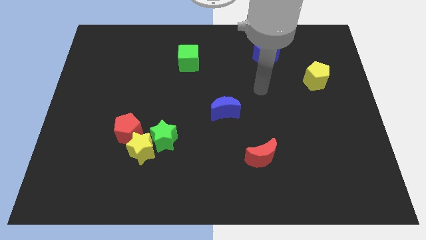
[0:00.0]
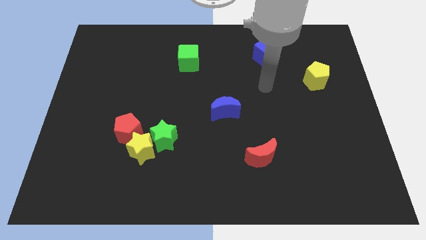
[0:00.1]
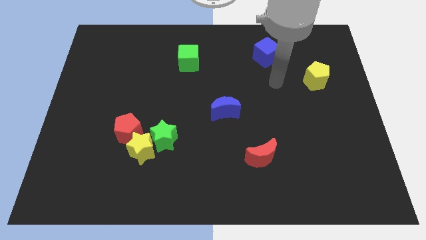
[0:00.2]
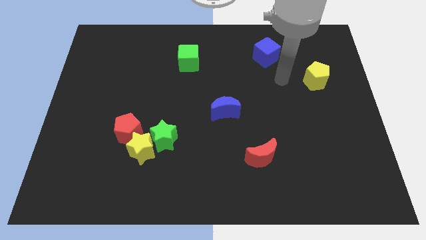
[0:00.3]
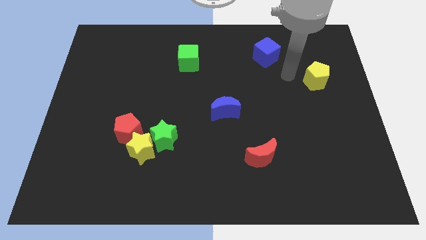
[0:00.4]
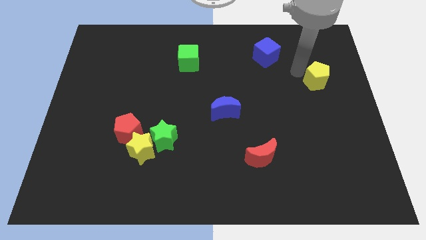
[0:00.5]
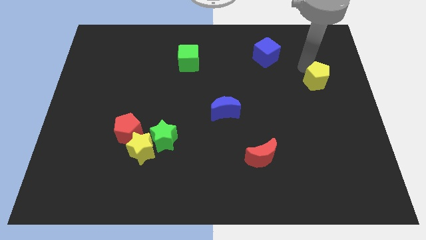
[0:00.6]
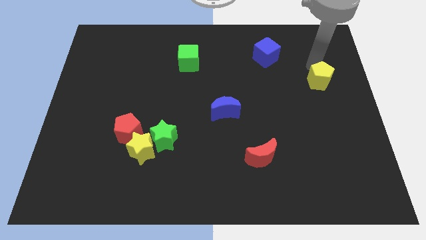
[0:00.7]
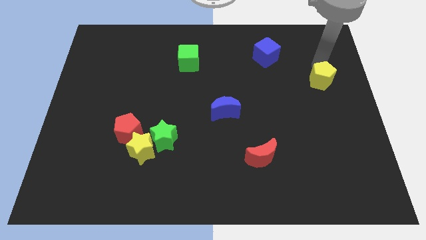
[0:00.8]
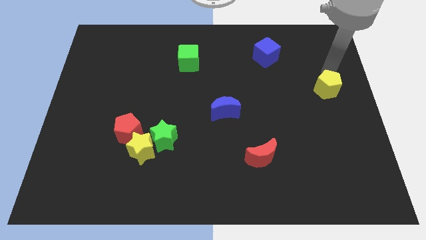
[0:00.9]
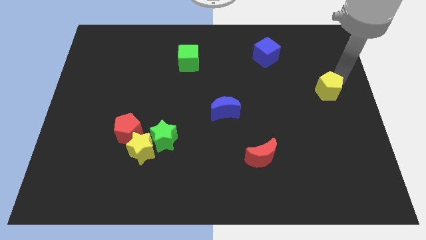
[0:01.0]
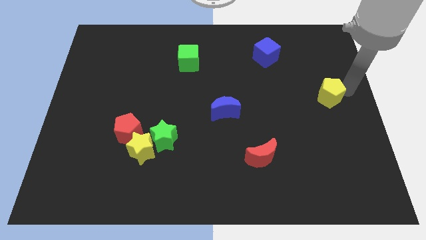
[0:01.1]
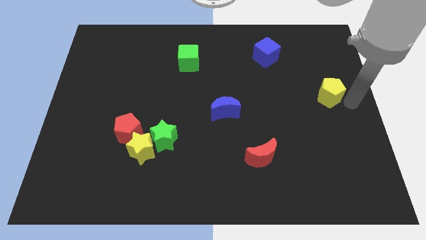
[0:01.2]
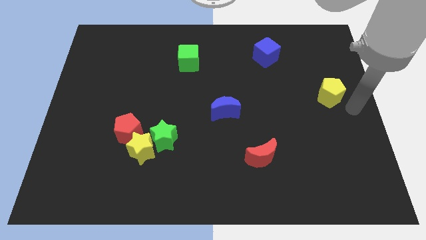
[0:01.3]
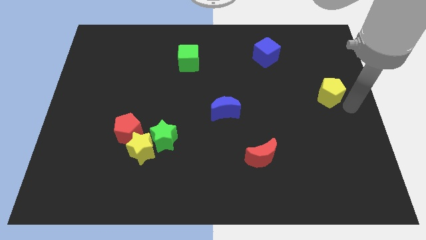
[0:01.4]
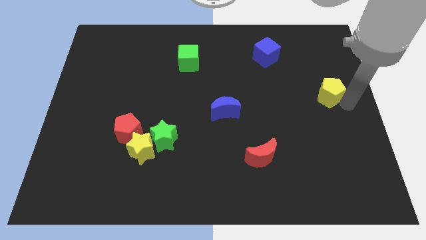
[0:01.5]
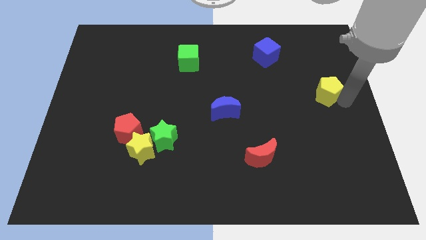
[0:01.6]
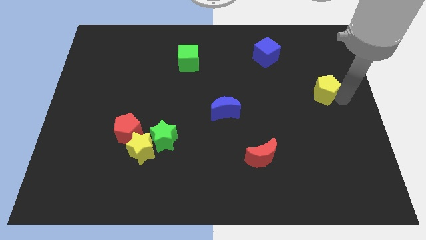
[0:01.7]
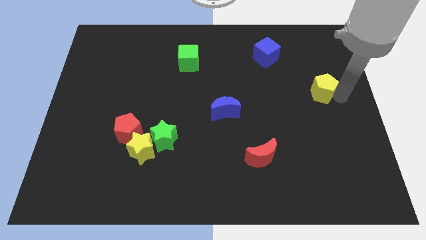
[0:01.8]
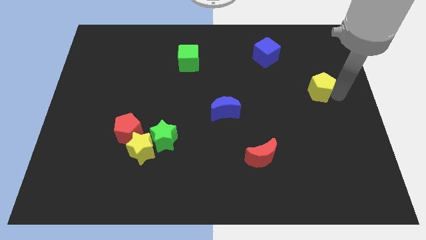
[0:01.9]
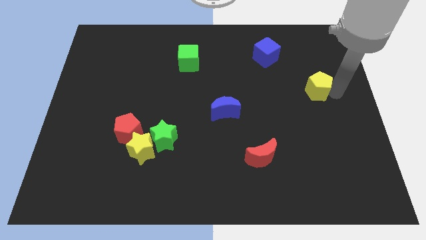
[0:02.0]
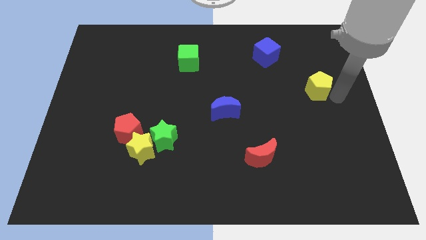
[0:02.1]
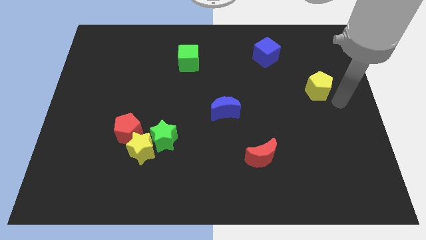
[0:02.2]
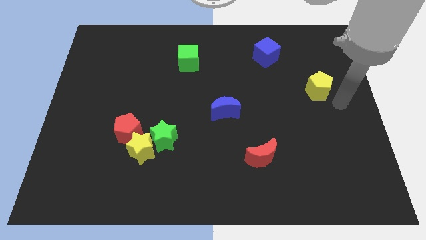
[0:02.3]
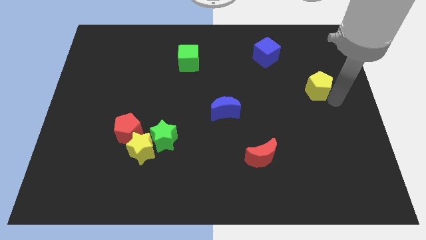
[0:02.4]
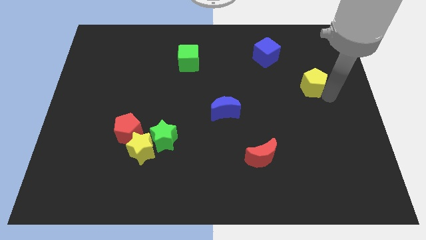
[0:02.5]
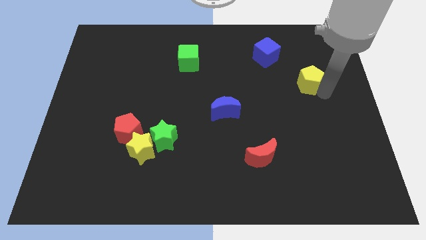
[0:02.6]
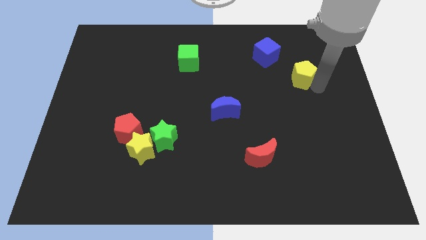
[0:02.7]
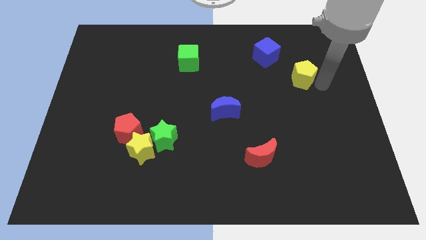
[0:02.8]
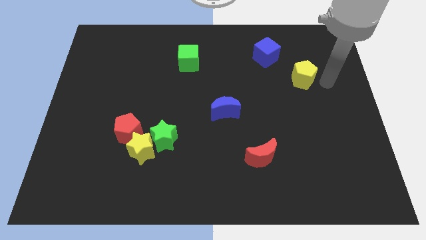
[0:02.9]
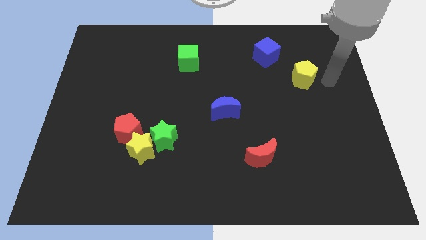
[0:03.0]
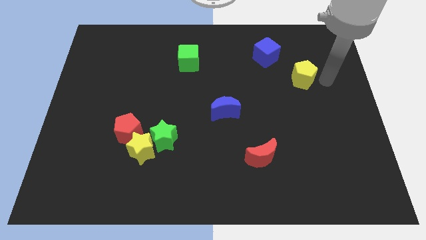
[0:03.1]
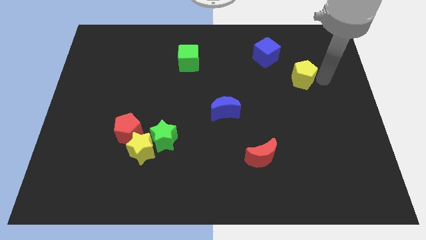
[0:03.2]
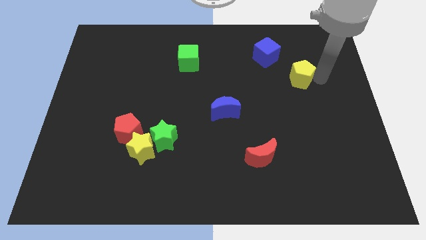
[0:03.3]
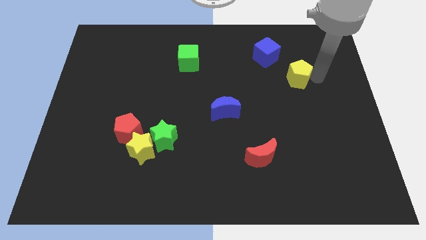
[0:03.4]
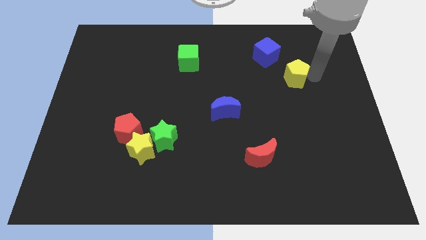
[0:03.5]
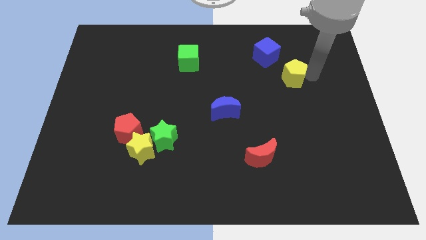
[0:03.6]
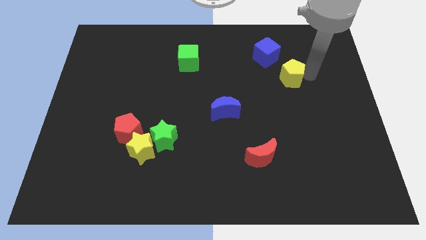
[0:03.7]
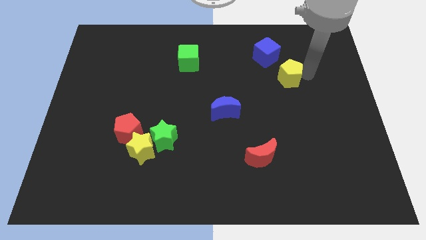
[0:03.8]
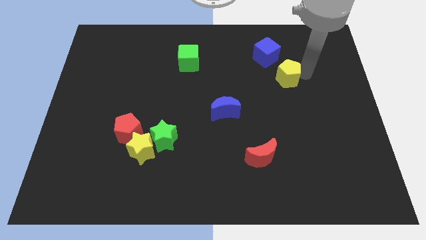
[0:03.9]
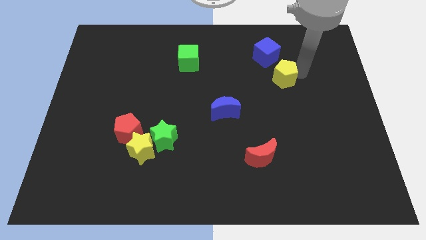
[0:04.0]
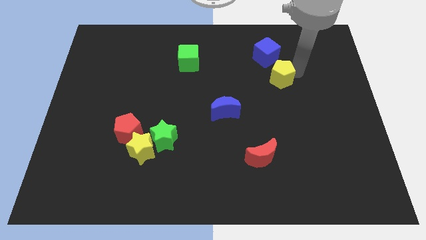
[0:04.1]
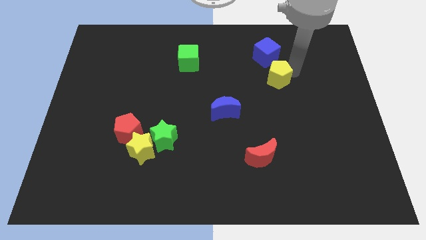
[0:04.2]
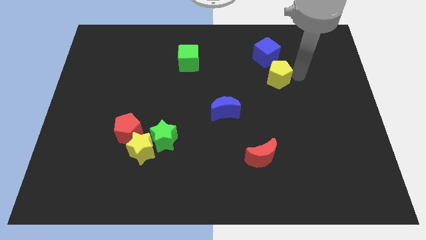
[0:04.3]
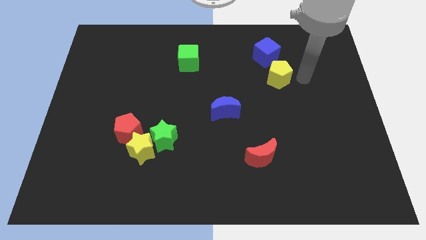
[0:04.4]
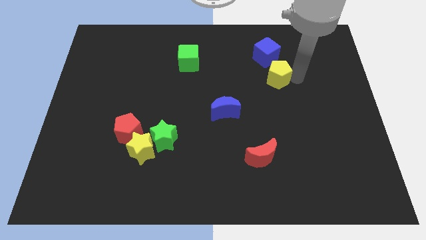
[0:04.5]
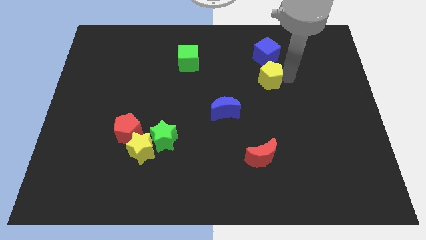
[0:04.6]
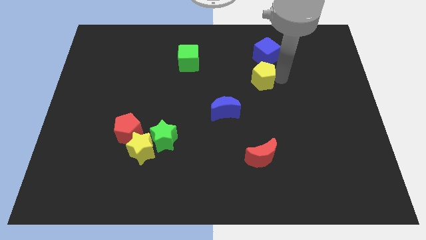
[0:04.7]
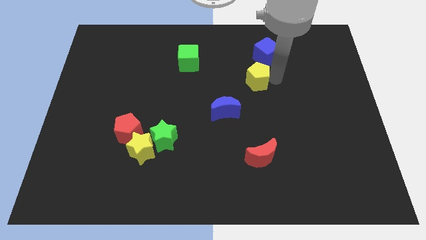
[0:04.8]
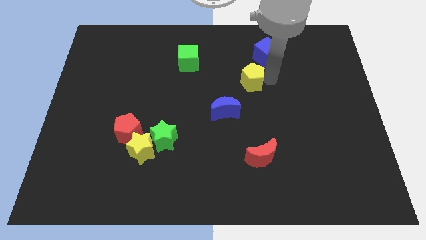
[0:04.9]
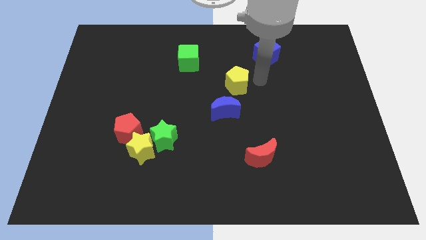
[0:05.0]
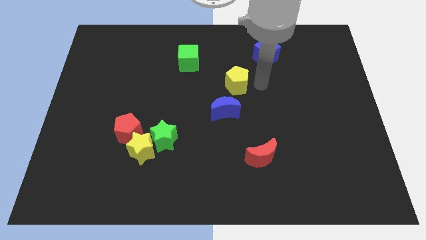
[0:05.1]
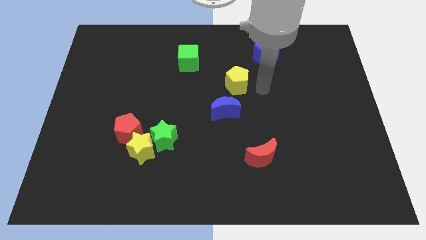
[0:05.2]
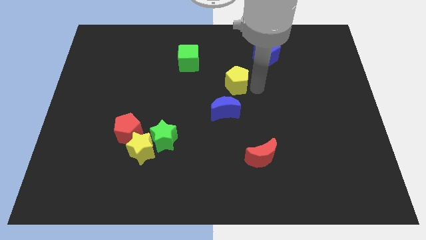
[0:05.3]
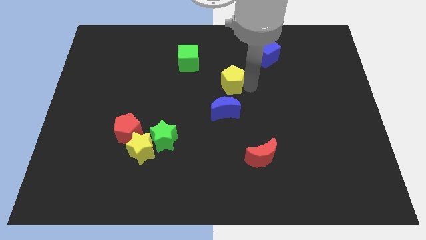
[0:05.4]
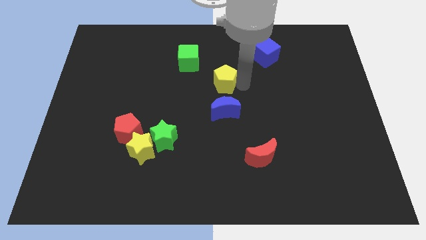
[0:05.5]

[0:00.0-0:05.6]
move the yellow pentagon to the bottom right of the green cube

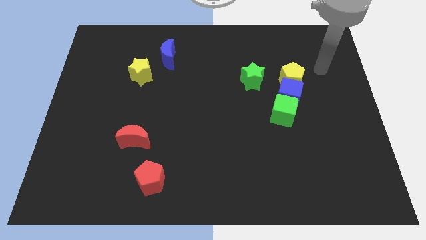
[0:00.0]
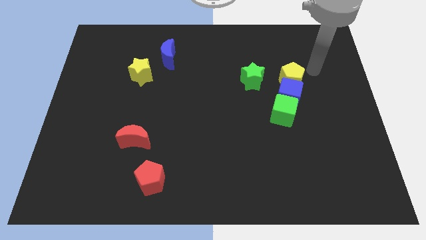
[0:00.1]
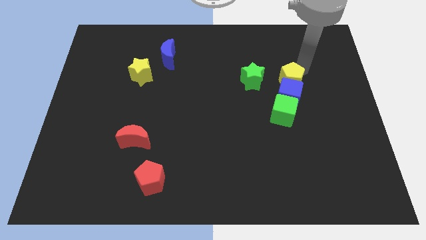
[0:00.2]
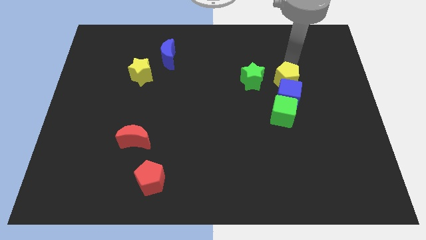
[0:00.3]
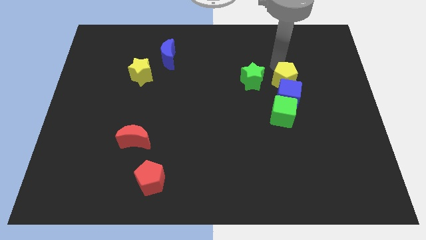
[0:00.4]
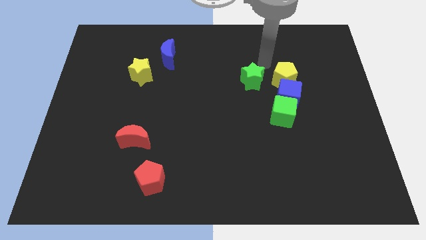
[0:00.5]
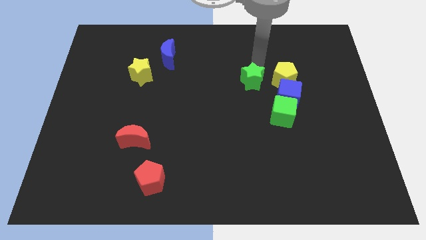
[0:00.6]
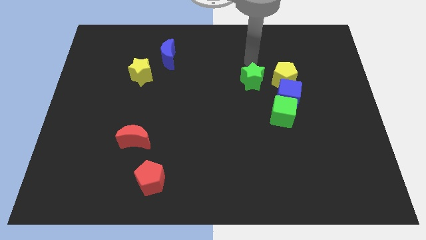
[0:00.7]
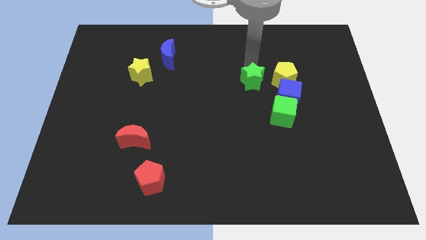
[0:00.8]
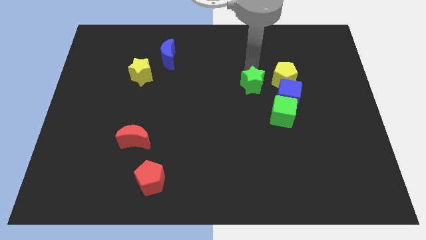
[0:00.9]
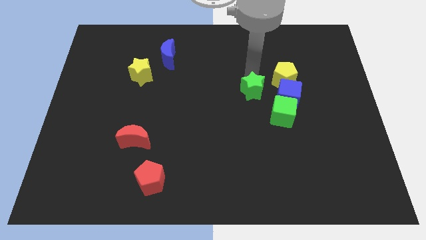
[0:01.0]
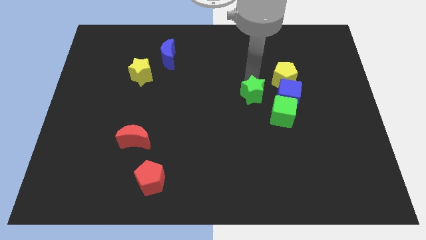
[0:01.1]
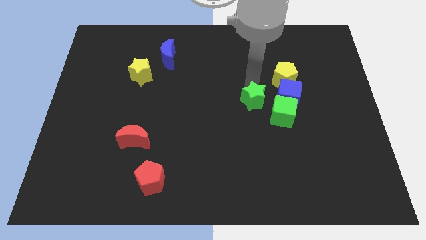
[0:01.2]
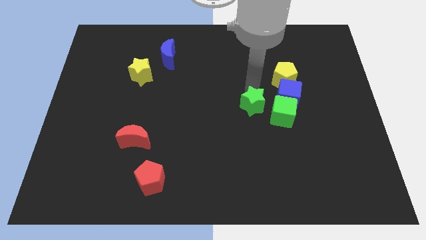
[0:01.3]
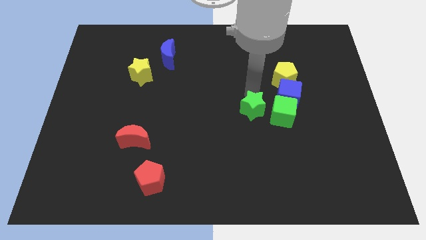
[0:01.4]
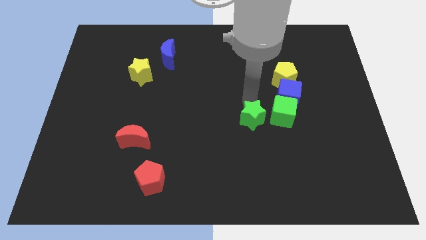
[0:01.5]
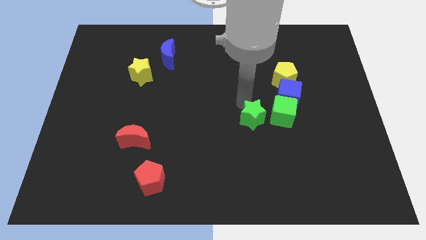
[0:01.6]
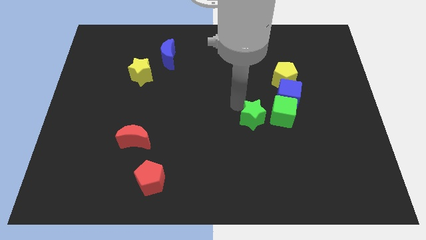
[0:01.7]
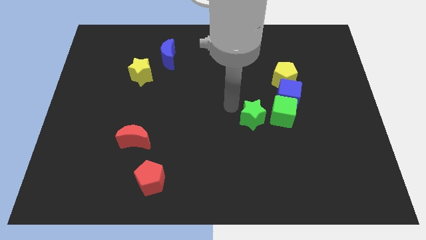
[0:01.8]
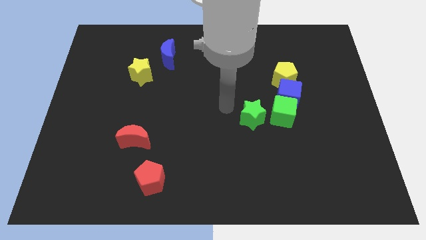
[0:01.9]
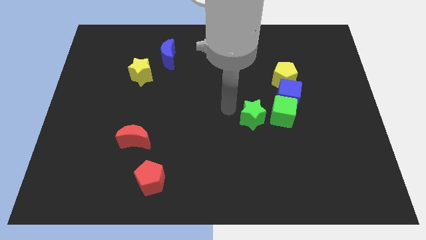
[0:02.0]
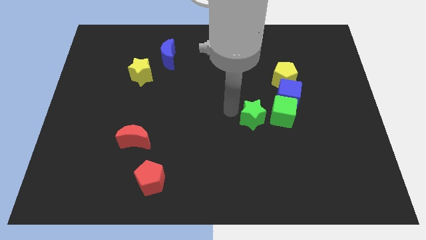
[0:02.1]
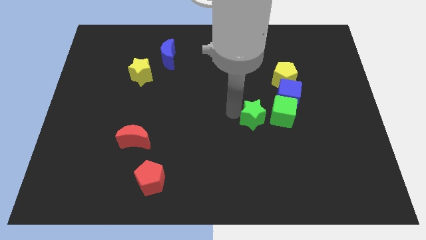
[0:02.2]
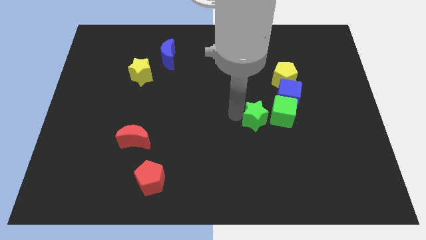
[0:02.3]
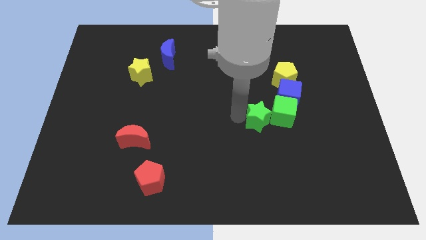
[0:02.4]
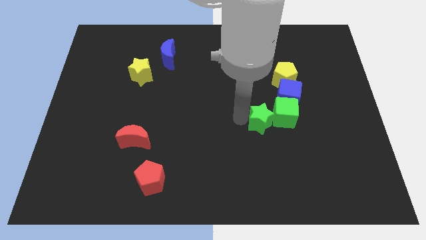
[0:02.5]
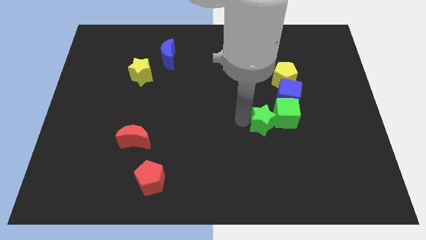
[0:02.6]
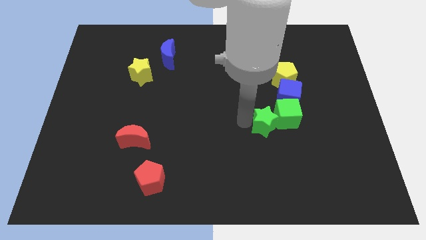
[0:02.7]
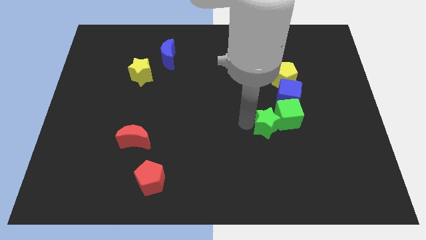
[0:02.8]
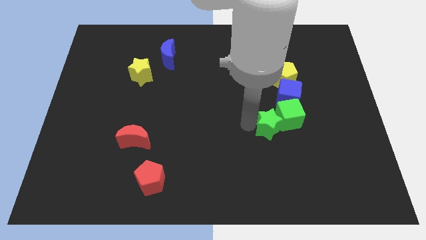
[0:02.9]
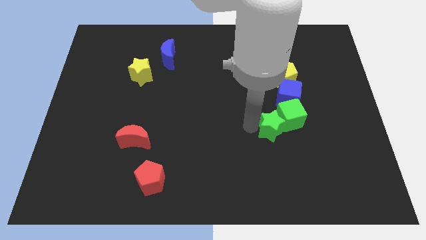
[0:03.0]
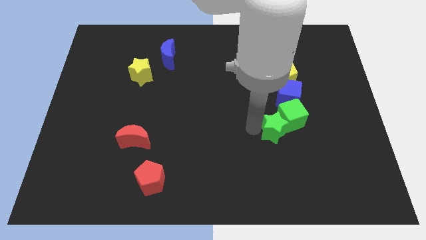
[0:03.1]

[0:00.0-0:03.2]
move the green star below the blue cube
